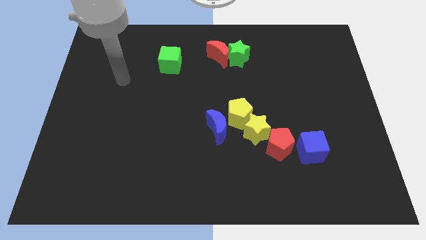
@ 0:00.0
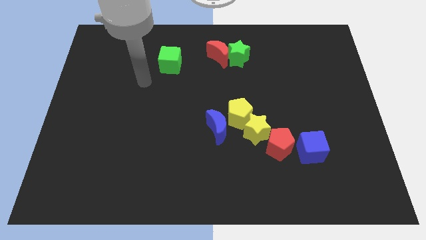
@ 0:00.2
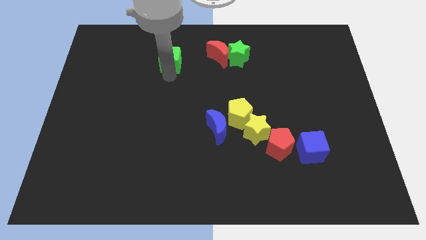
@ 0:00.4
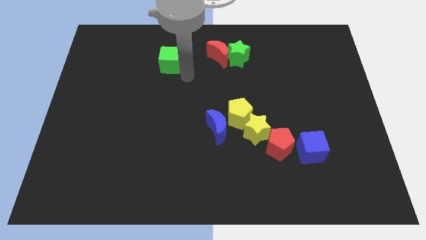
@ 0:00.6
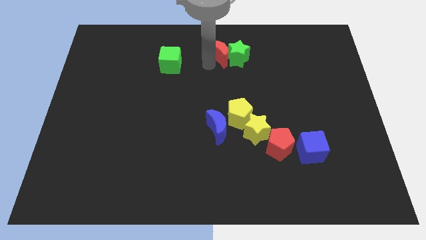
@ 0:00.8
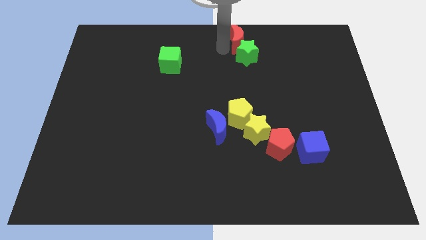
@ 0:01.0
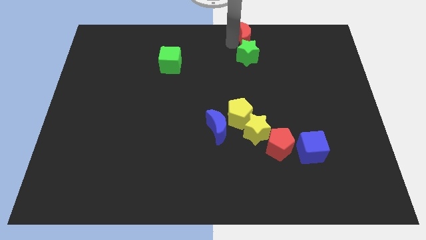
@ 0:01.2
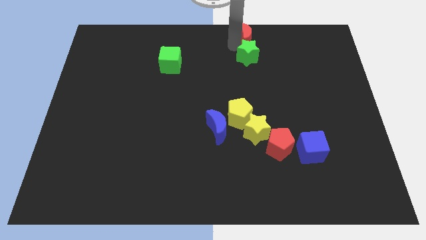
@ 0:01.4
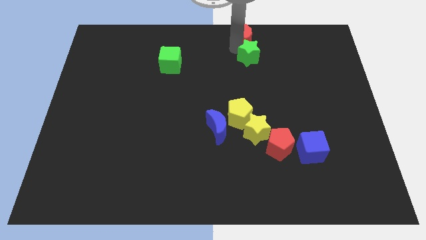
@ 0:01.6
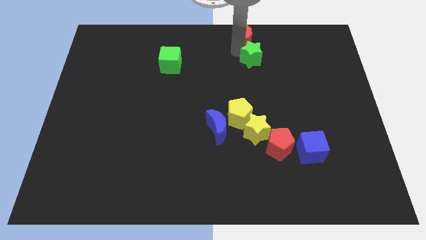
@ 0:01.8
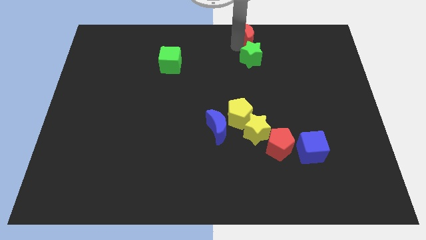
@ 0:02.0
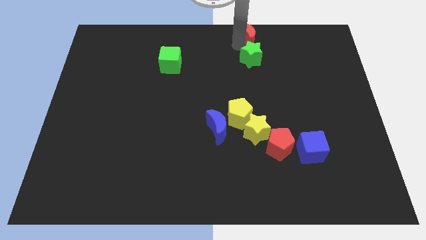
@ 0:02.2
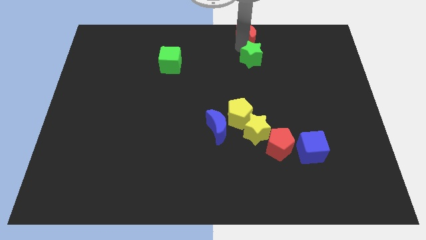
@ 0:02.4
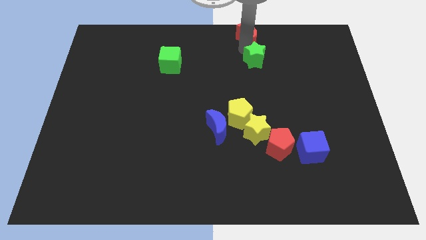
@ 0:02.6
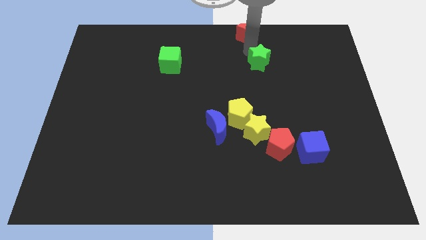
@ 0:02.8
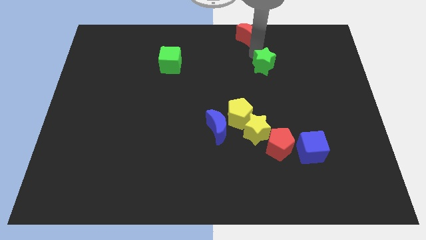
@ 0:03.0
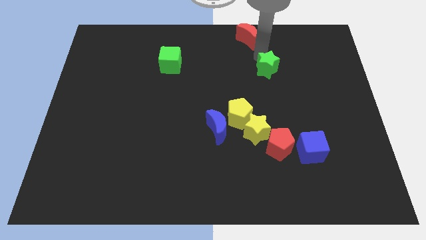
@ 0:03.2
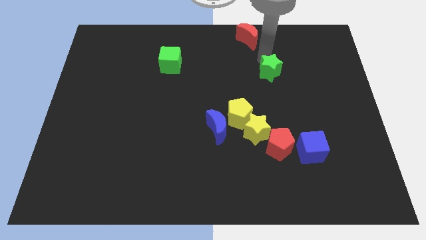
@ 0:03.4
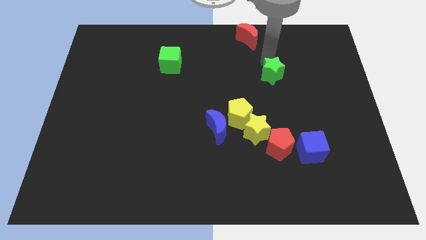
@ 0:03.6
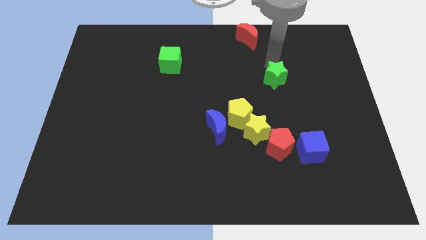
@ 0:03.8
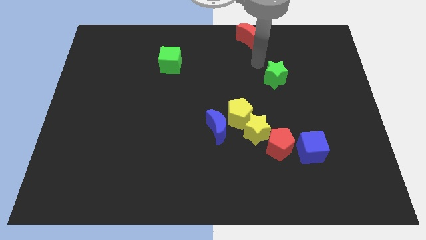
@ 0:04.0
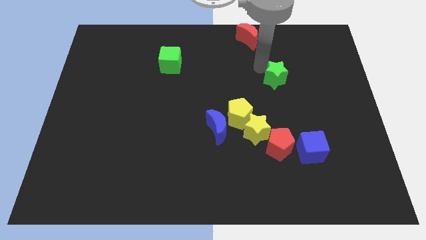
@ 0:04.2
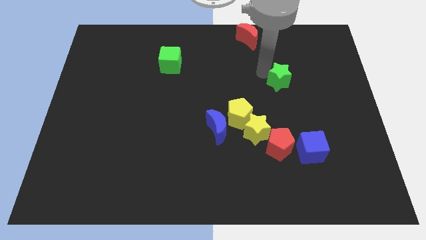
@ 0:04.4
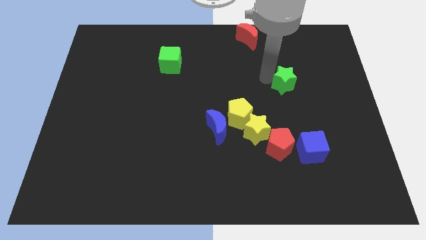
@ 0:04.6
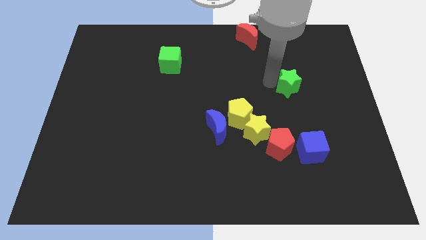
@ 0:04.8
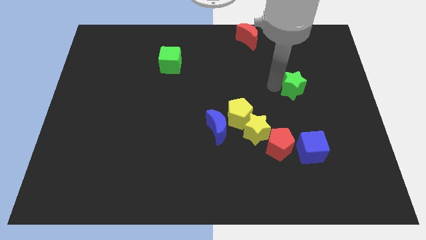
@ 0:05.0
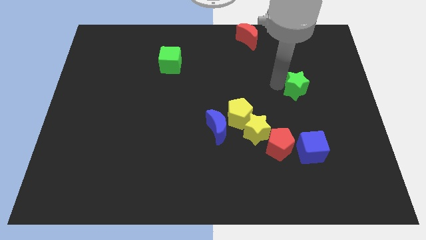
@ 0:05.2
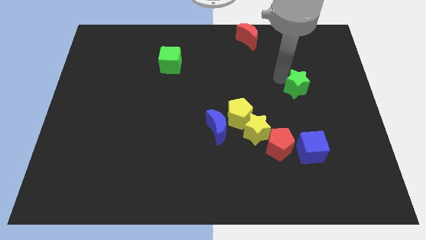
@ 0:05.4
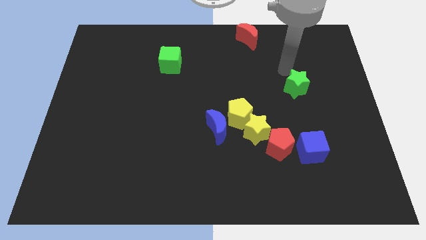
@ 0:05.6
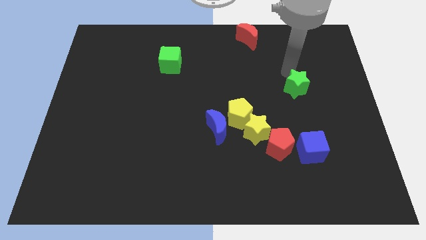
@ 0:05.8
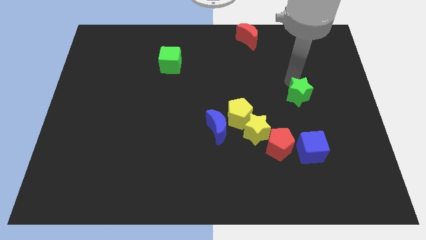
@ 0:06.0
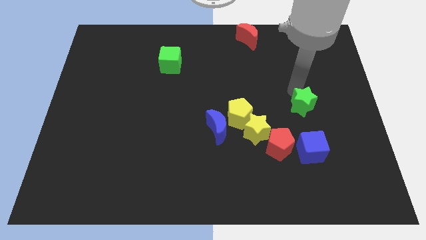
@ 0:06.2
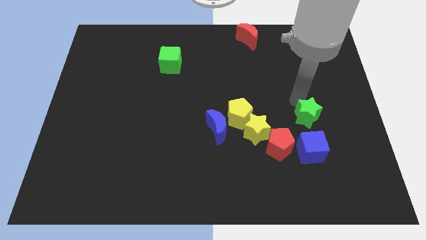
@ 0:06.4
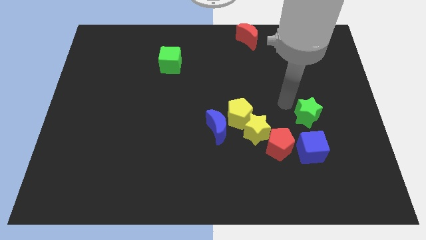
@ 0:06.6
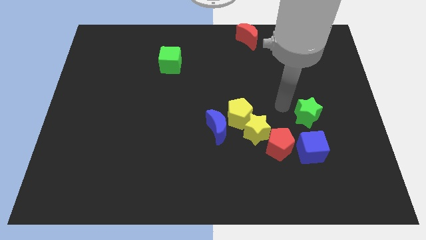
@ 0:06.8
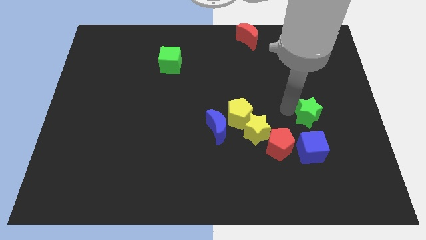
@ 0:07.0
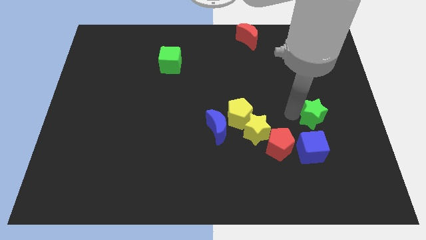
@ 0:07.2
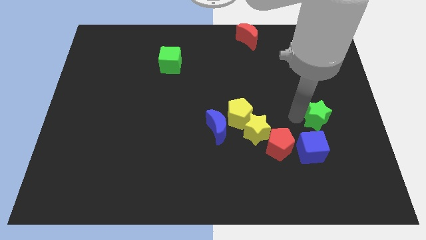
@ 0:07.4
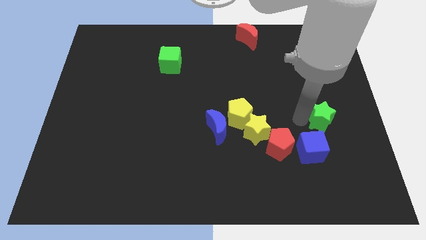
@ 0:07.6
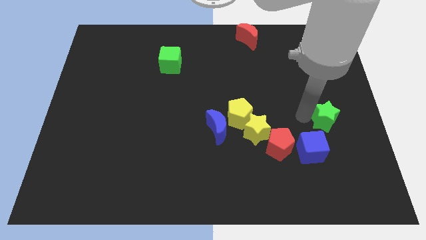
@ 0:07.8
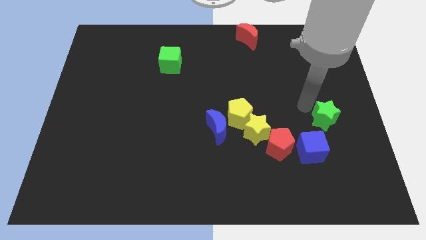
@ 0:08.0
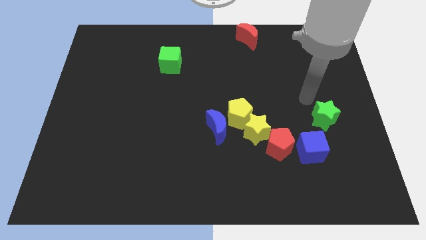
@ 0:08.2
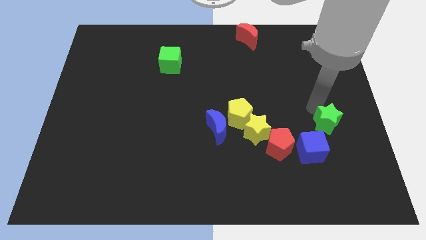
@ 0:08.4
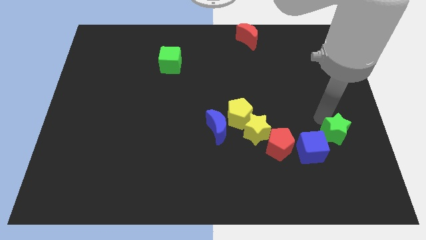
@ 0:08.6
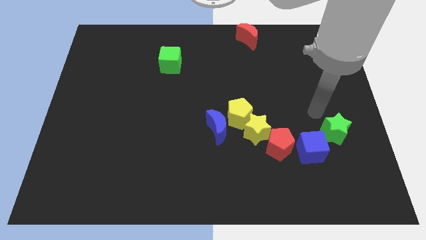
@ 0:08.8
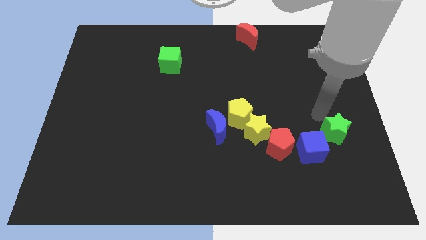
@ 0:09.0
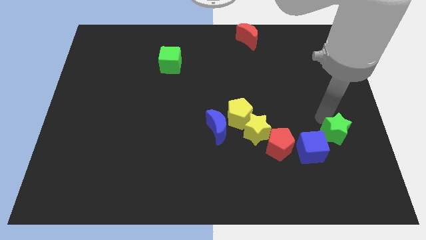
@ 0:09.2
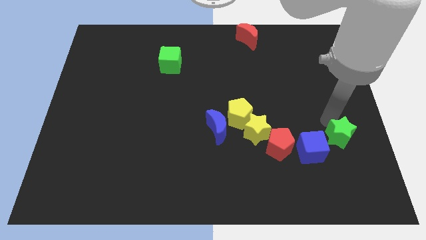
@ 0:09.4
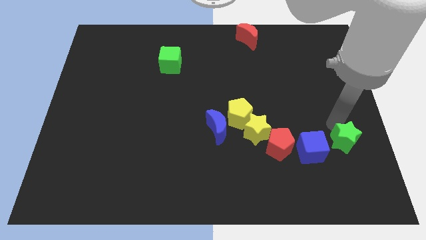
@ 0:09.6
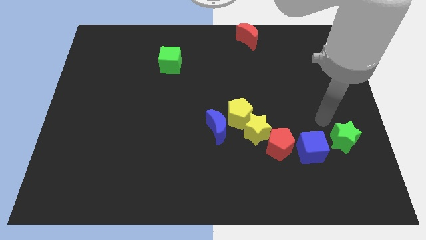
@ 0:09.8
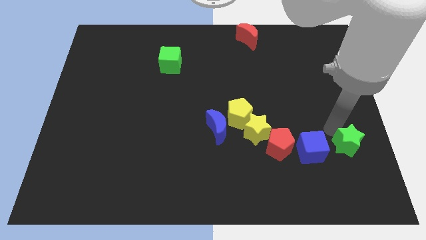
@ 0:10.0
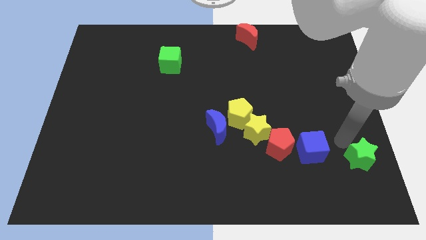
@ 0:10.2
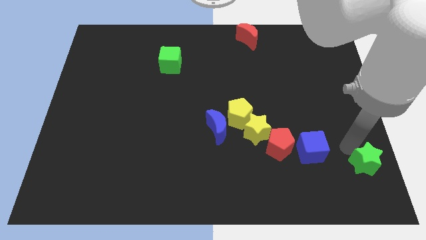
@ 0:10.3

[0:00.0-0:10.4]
slide the green star to the bottom right corner
